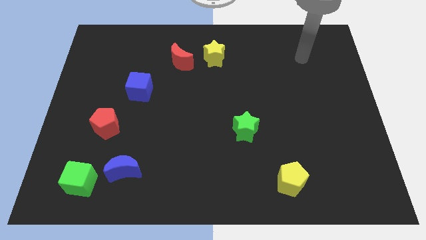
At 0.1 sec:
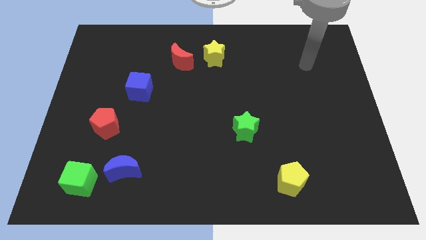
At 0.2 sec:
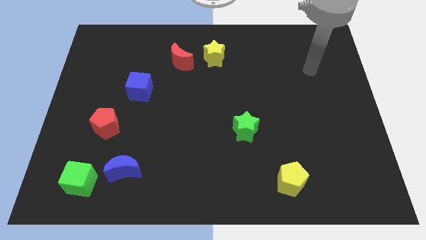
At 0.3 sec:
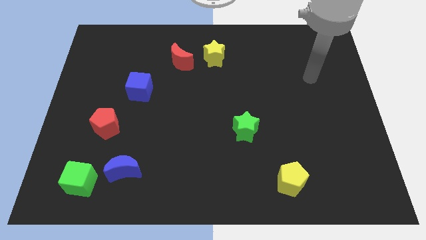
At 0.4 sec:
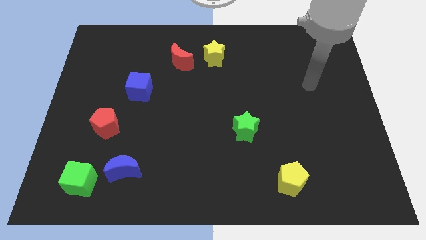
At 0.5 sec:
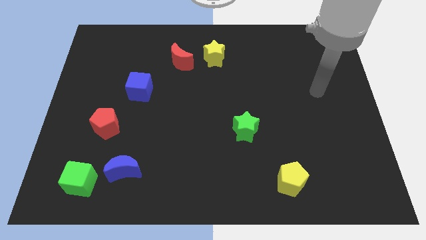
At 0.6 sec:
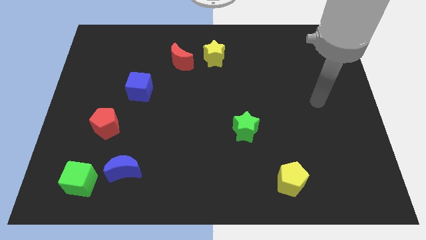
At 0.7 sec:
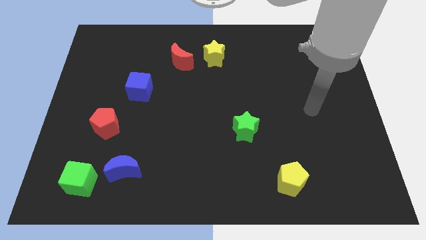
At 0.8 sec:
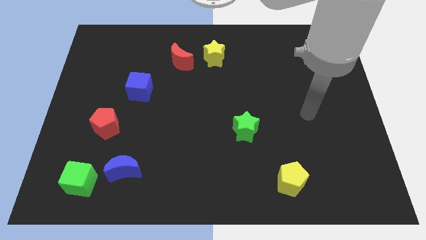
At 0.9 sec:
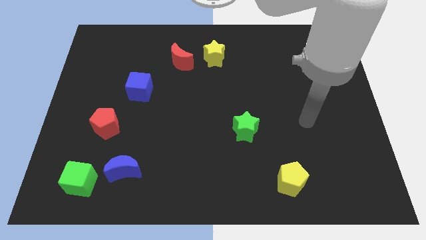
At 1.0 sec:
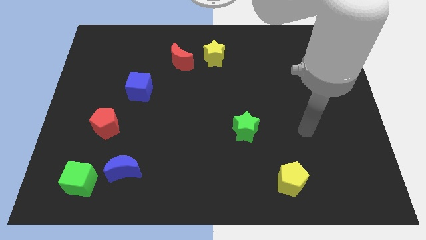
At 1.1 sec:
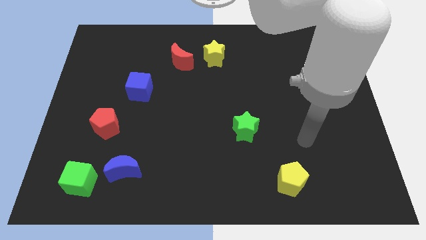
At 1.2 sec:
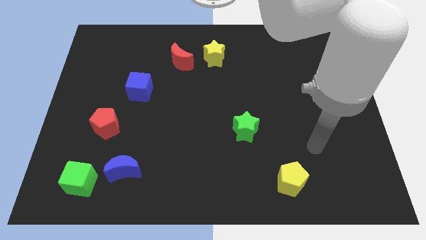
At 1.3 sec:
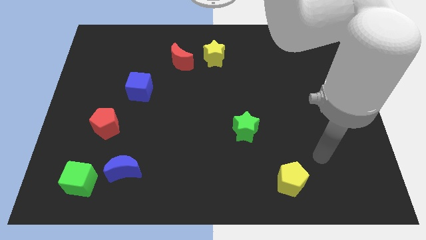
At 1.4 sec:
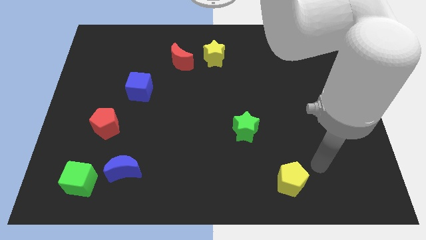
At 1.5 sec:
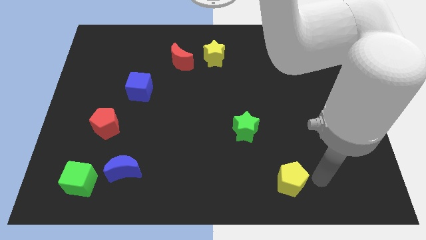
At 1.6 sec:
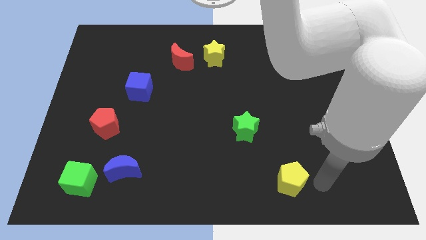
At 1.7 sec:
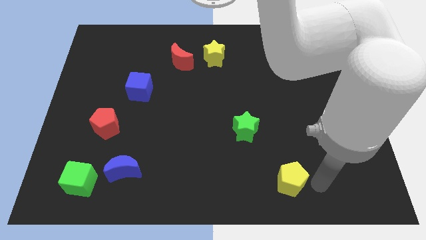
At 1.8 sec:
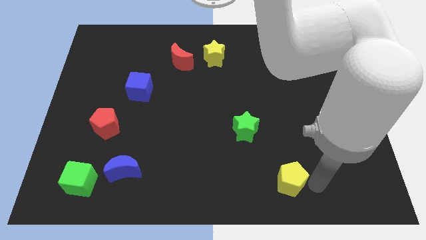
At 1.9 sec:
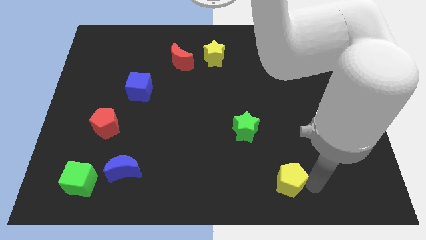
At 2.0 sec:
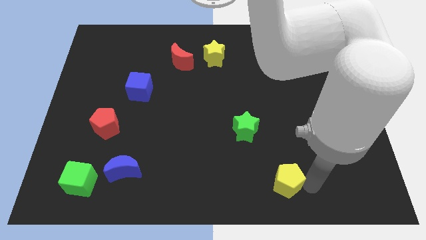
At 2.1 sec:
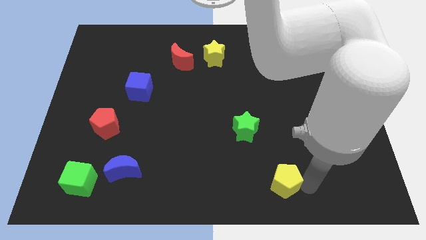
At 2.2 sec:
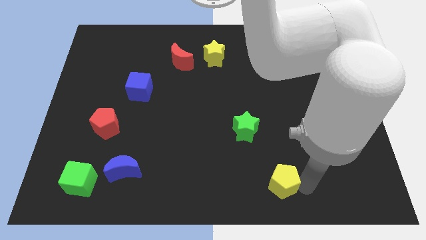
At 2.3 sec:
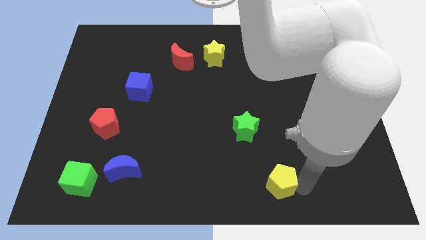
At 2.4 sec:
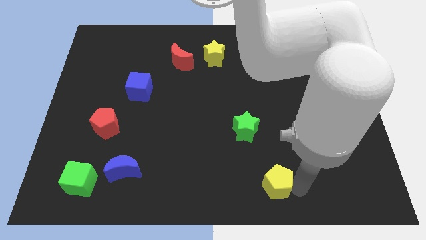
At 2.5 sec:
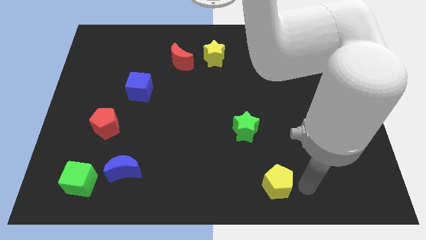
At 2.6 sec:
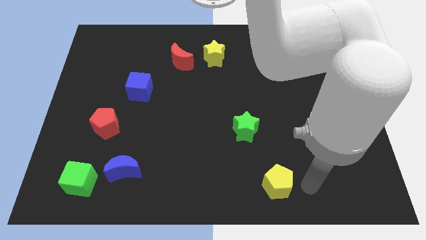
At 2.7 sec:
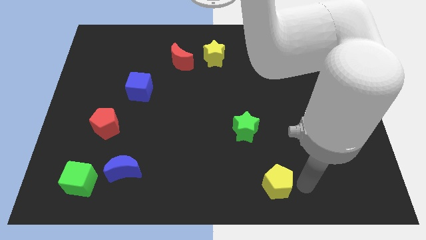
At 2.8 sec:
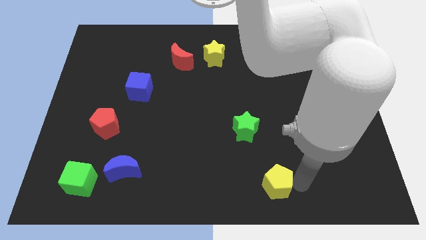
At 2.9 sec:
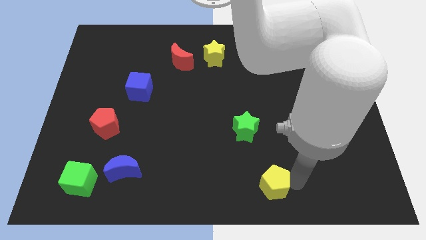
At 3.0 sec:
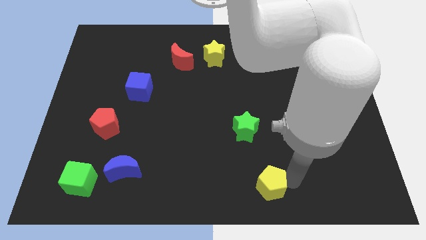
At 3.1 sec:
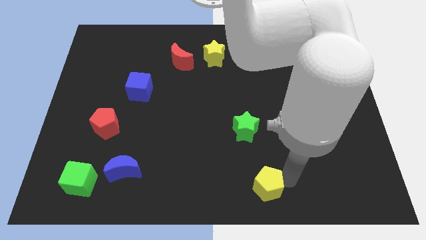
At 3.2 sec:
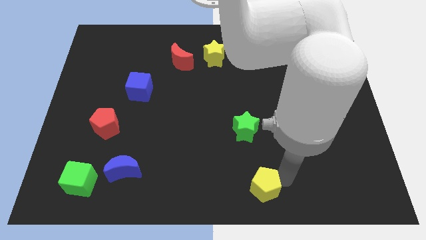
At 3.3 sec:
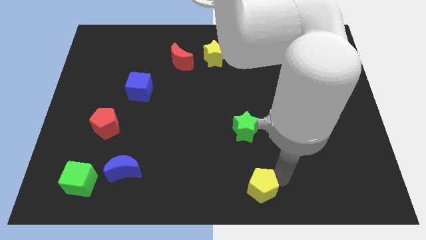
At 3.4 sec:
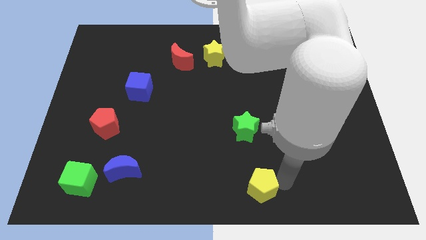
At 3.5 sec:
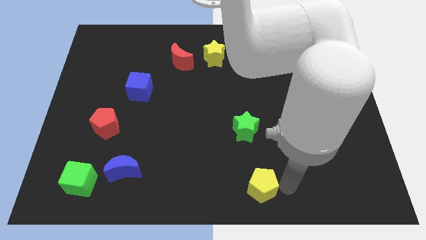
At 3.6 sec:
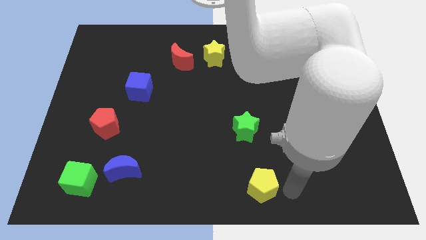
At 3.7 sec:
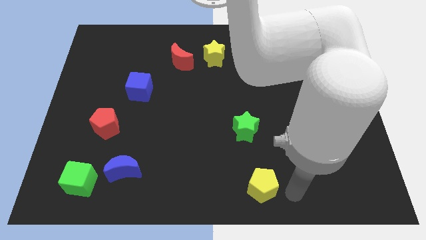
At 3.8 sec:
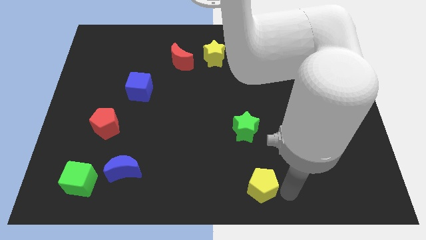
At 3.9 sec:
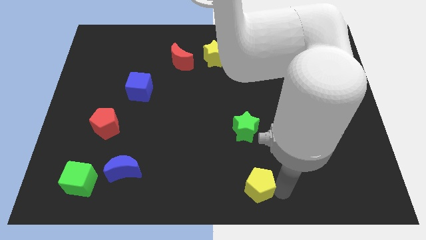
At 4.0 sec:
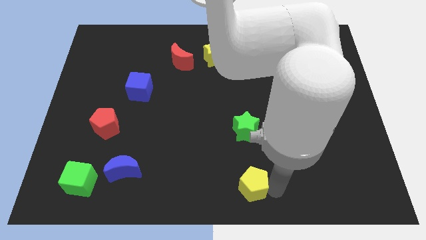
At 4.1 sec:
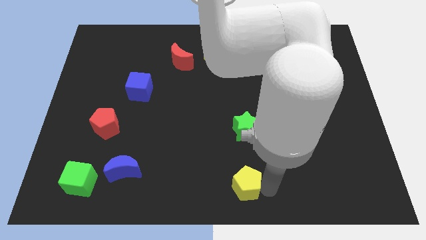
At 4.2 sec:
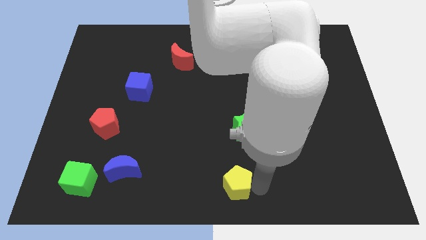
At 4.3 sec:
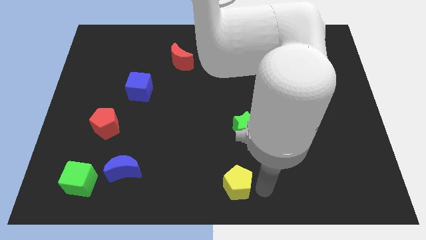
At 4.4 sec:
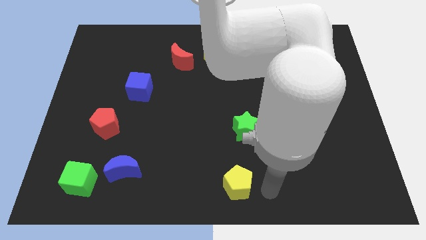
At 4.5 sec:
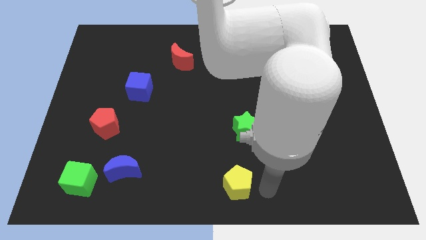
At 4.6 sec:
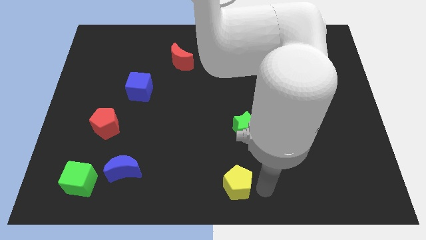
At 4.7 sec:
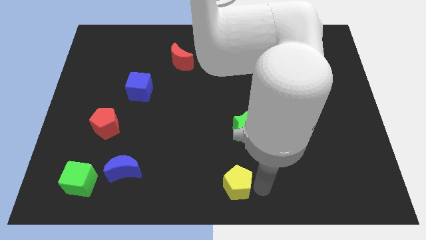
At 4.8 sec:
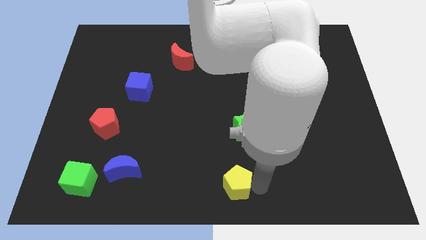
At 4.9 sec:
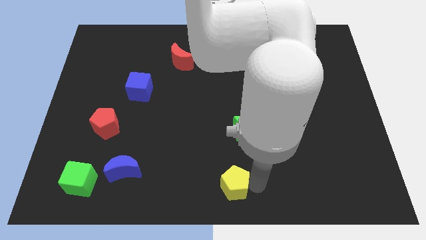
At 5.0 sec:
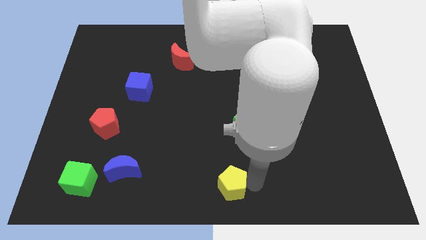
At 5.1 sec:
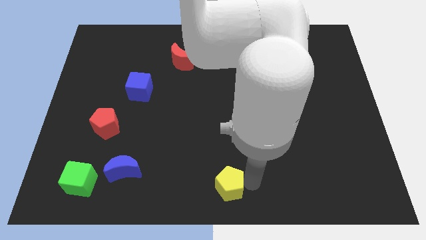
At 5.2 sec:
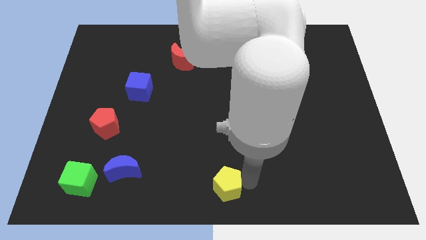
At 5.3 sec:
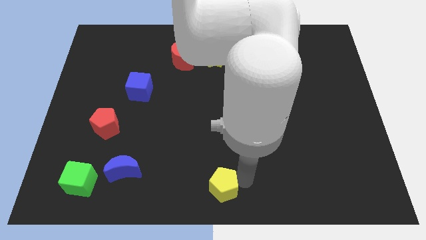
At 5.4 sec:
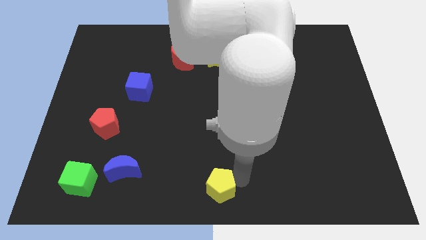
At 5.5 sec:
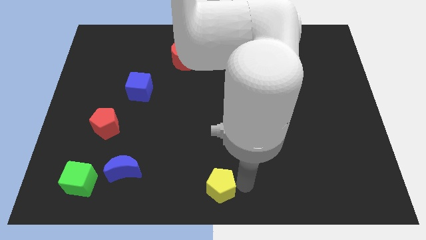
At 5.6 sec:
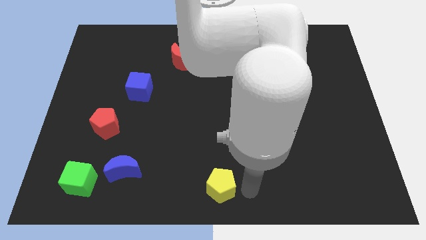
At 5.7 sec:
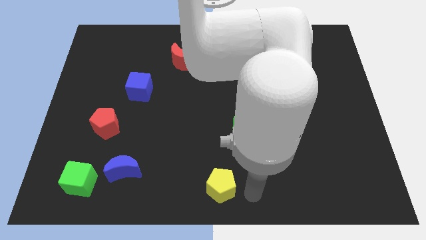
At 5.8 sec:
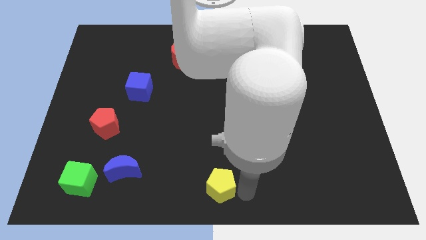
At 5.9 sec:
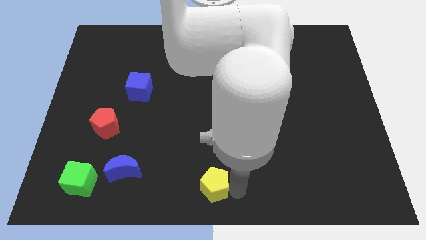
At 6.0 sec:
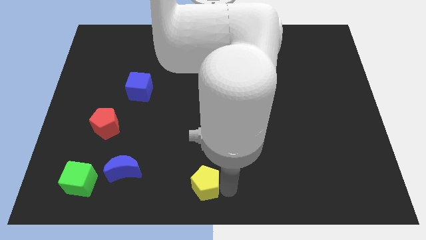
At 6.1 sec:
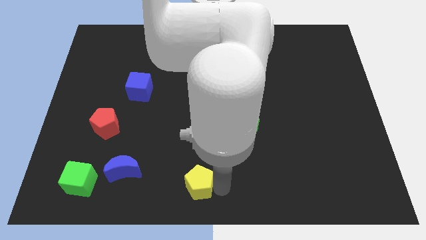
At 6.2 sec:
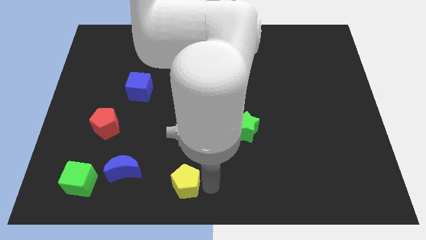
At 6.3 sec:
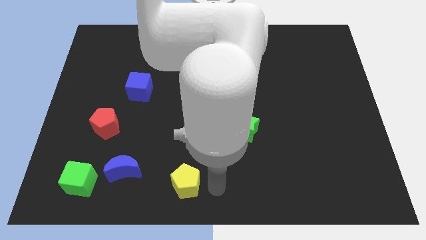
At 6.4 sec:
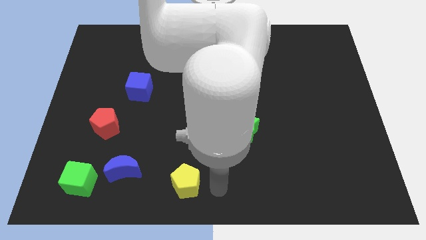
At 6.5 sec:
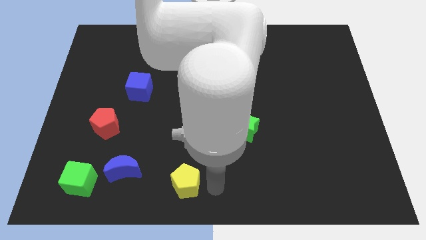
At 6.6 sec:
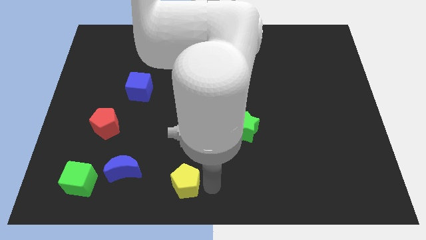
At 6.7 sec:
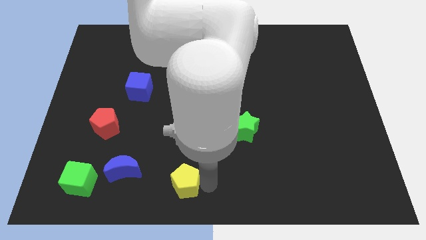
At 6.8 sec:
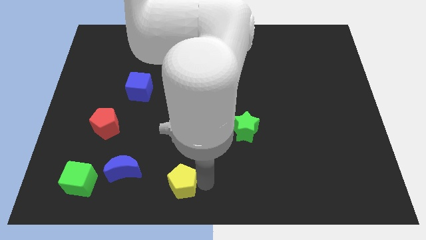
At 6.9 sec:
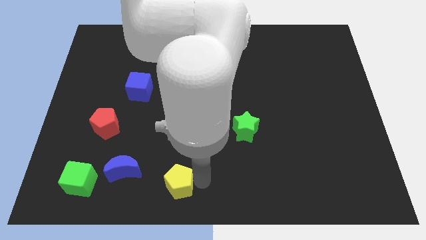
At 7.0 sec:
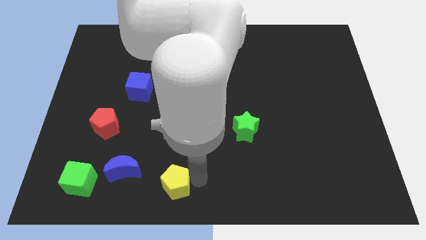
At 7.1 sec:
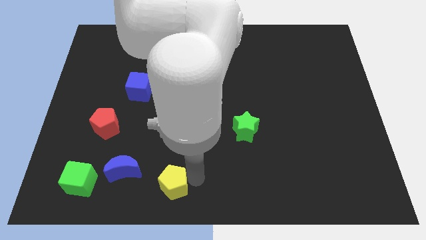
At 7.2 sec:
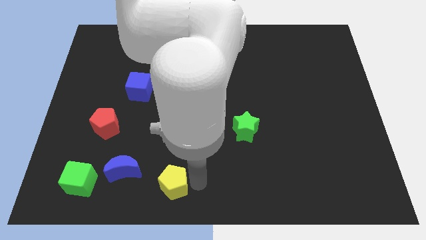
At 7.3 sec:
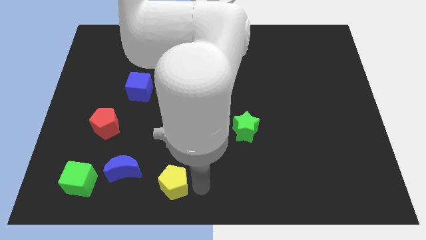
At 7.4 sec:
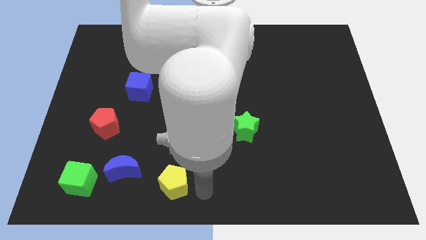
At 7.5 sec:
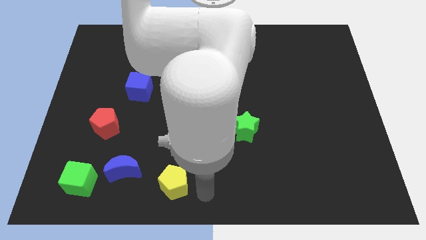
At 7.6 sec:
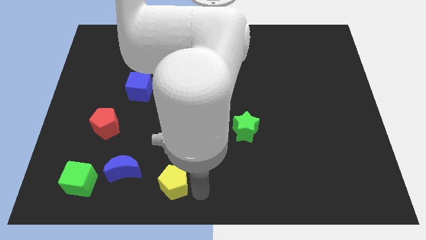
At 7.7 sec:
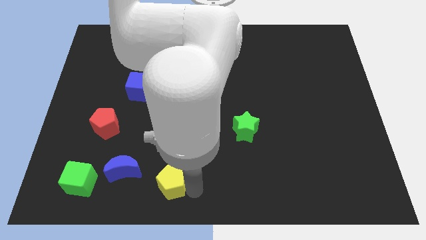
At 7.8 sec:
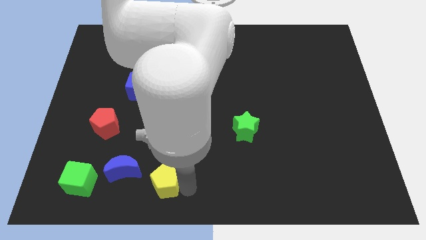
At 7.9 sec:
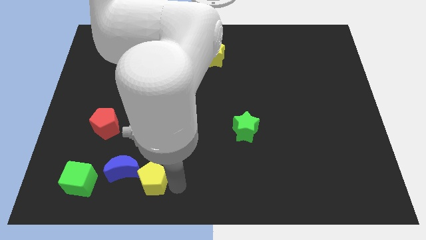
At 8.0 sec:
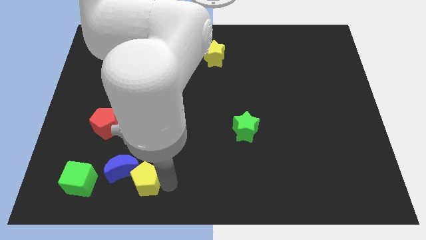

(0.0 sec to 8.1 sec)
move the yellow pentagon close to the blue moon
